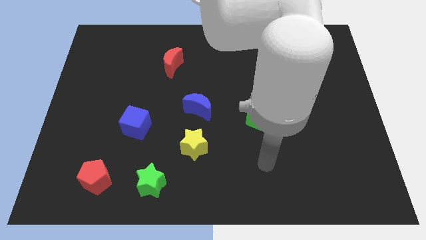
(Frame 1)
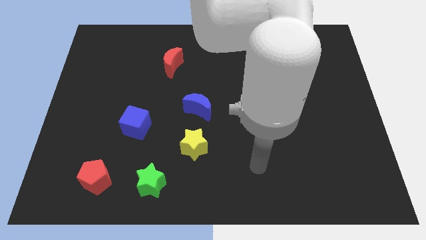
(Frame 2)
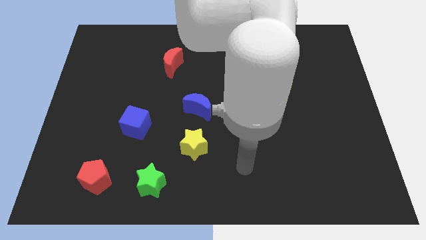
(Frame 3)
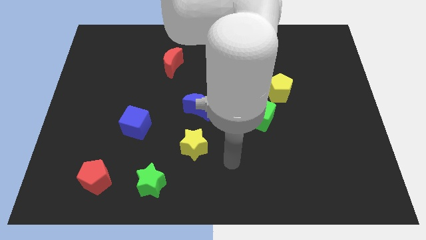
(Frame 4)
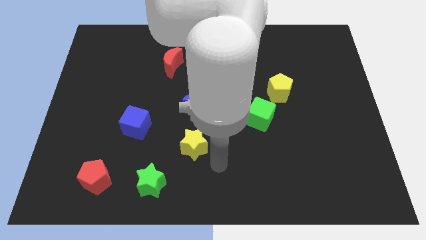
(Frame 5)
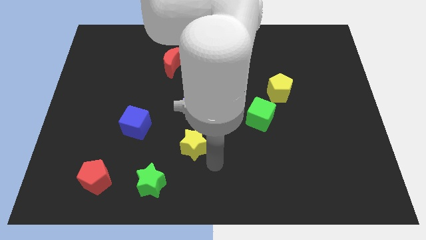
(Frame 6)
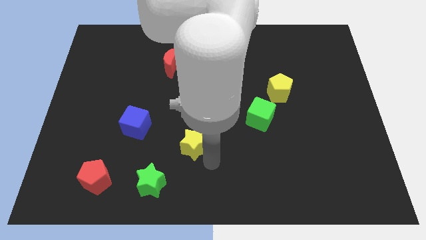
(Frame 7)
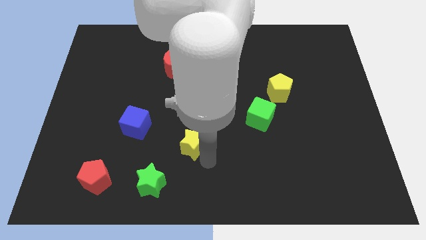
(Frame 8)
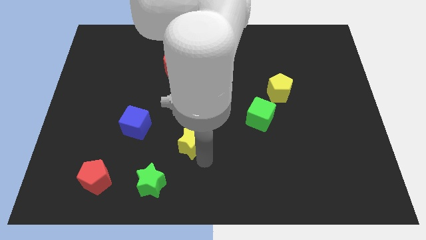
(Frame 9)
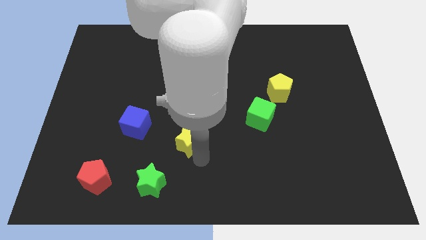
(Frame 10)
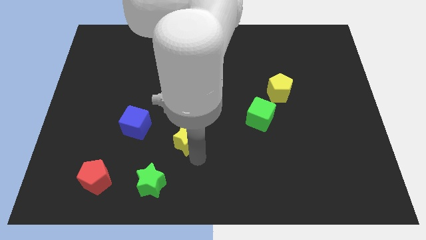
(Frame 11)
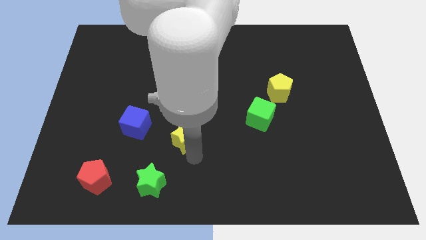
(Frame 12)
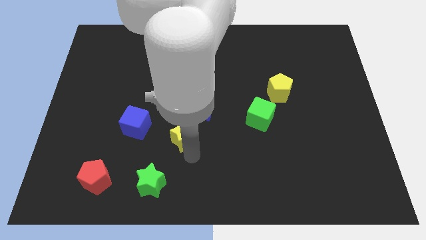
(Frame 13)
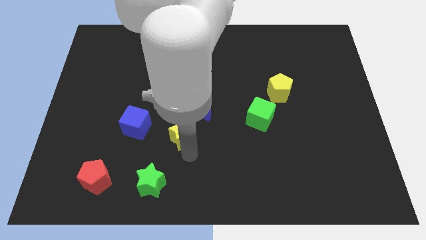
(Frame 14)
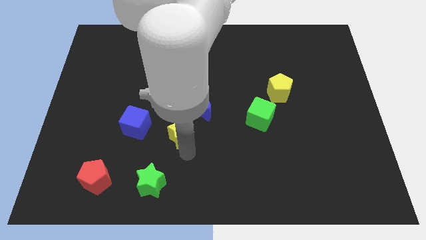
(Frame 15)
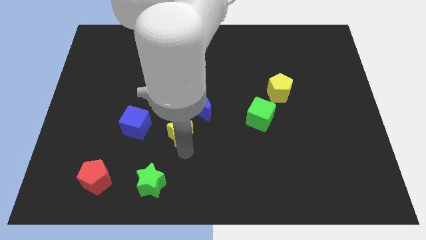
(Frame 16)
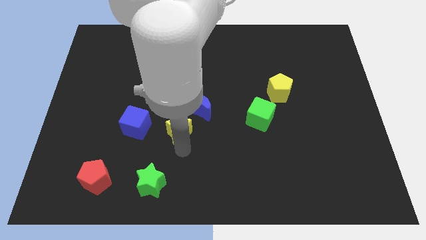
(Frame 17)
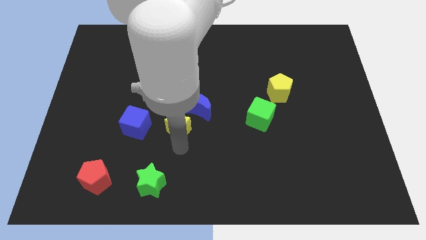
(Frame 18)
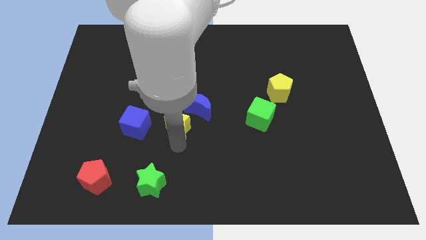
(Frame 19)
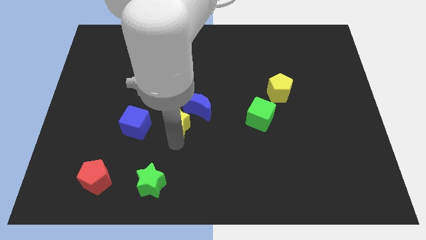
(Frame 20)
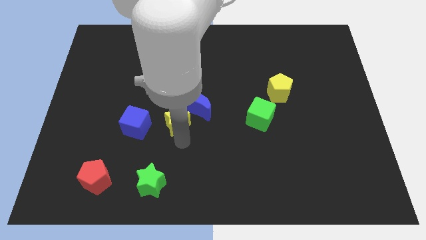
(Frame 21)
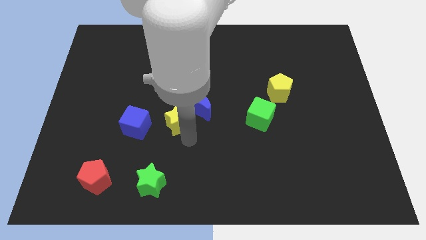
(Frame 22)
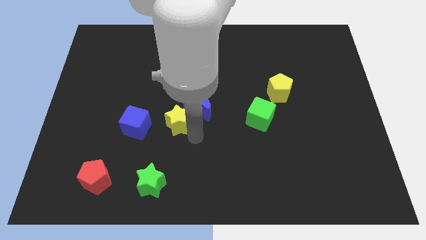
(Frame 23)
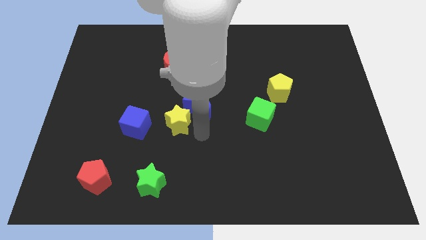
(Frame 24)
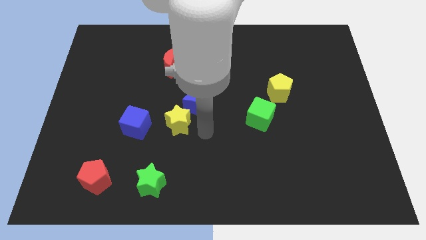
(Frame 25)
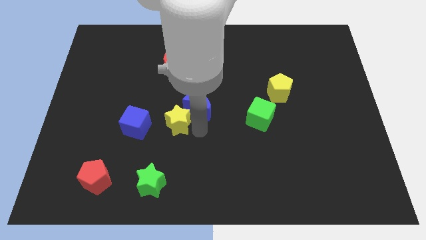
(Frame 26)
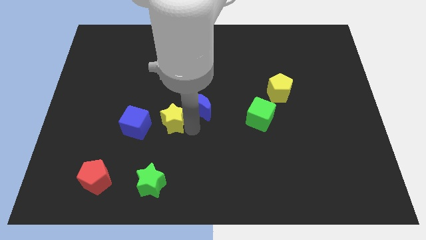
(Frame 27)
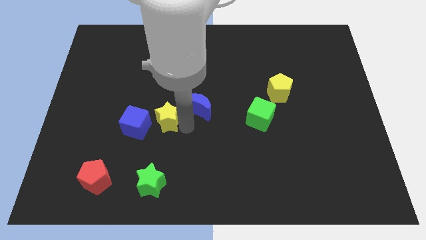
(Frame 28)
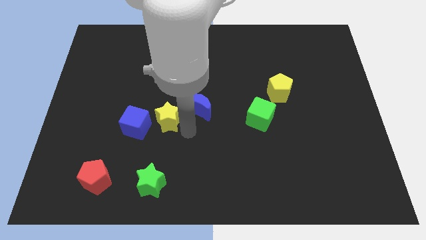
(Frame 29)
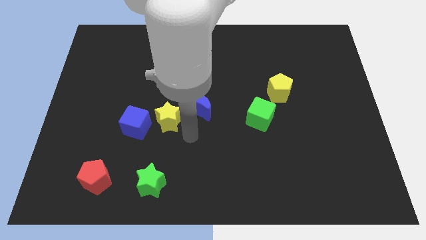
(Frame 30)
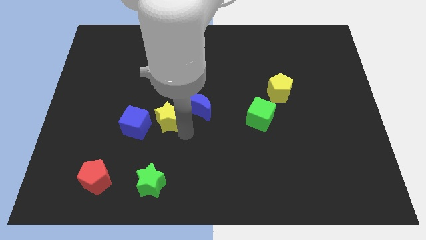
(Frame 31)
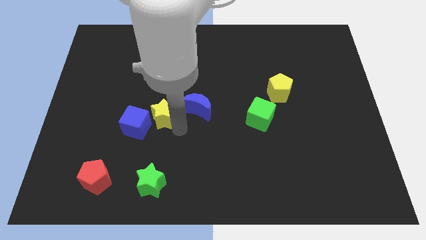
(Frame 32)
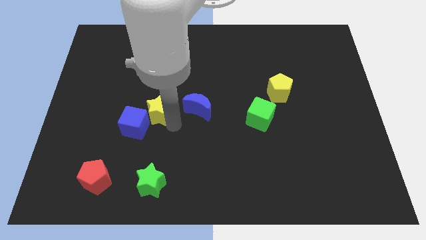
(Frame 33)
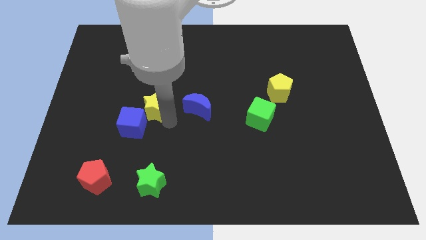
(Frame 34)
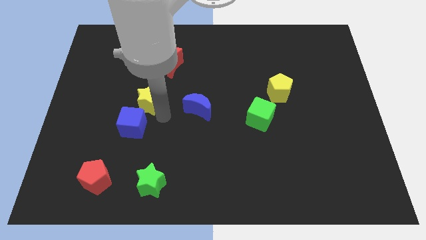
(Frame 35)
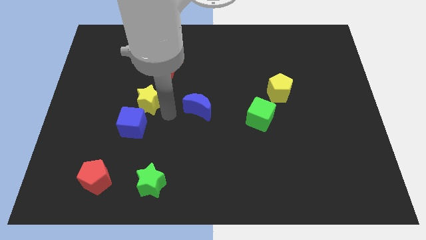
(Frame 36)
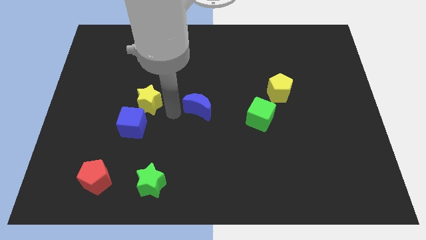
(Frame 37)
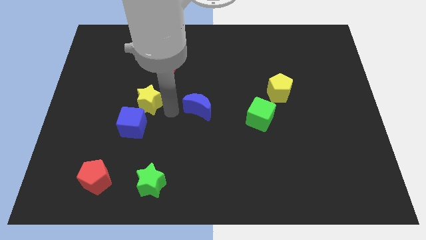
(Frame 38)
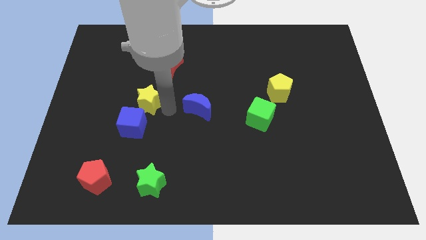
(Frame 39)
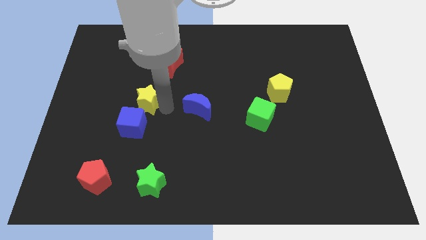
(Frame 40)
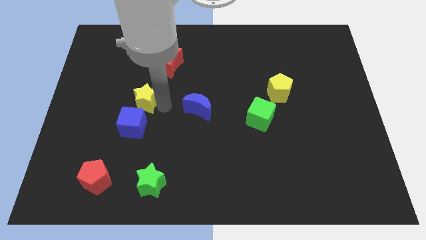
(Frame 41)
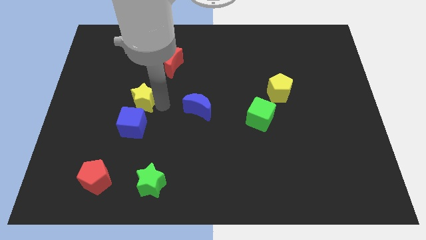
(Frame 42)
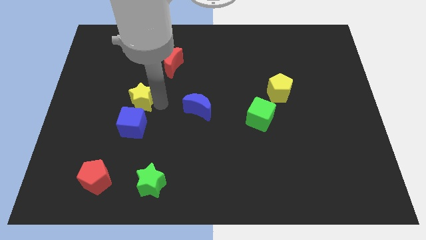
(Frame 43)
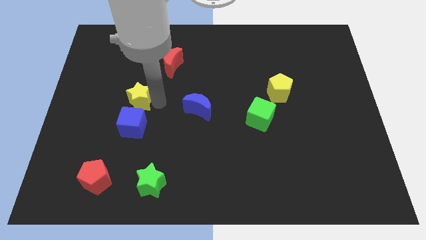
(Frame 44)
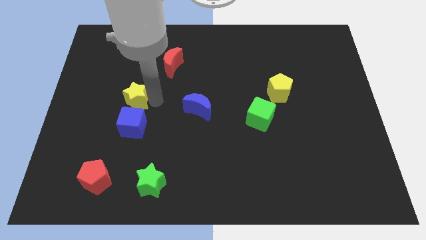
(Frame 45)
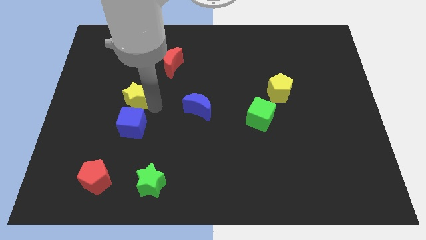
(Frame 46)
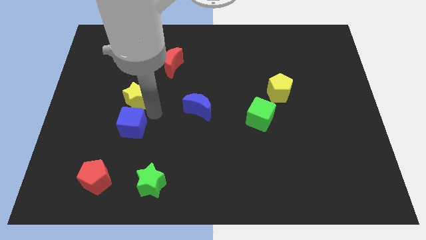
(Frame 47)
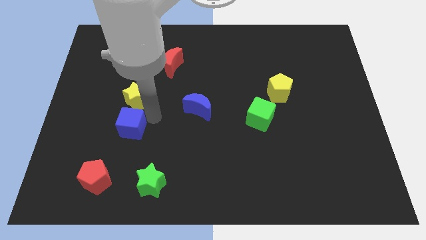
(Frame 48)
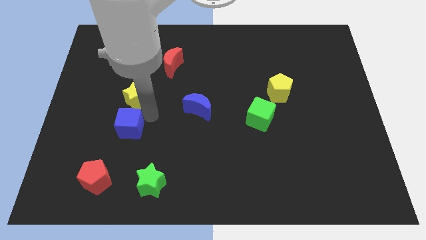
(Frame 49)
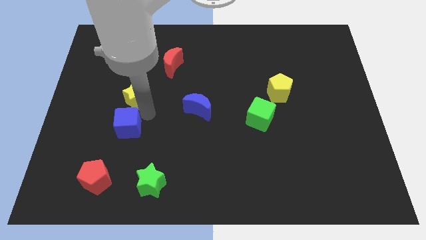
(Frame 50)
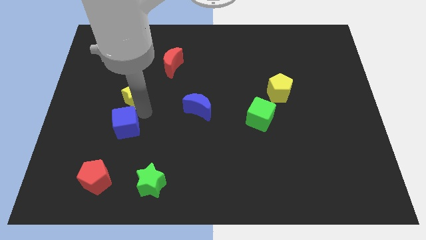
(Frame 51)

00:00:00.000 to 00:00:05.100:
push the yellow star up and then left

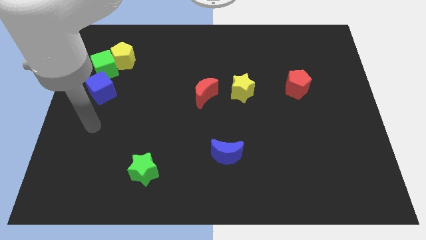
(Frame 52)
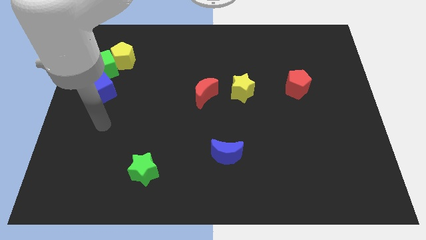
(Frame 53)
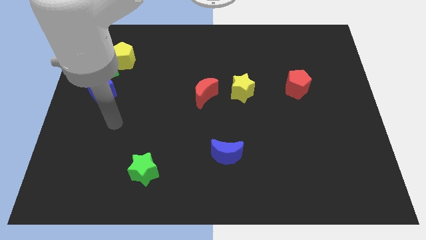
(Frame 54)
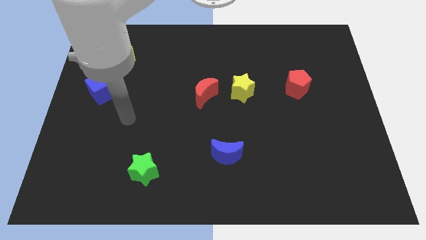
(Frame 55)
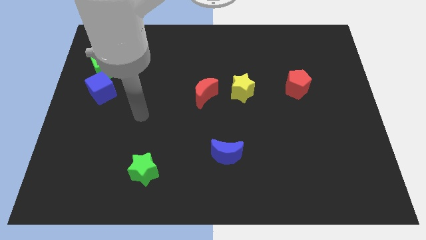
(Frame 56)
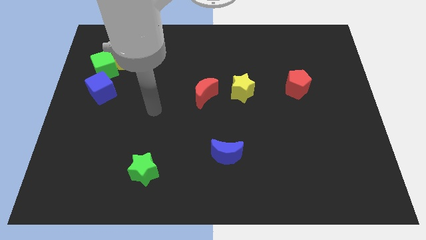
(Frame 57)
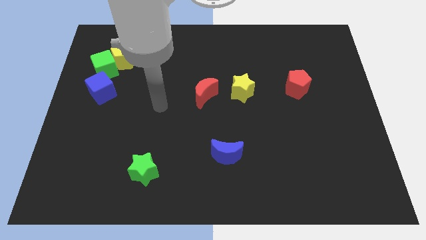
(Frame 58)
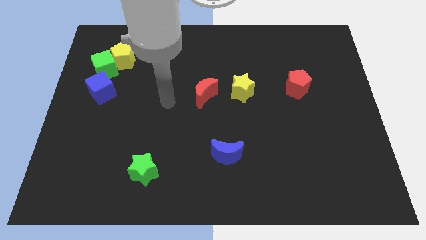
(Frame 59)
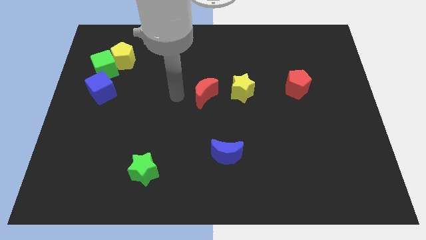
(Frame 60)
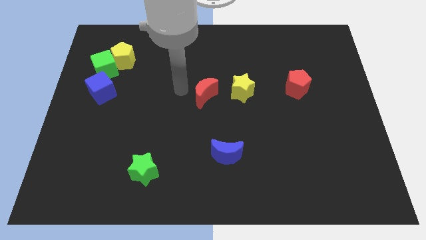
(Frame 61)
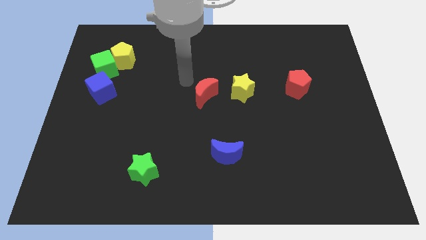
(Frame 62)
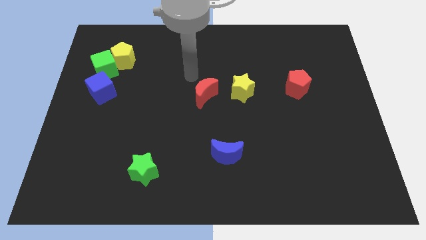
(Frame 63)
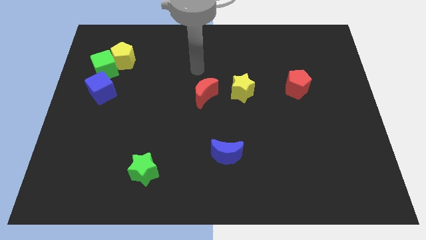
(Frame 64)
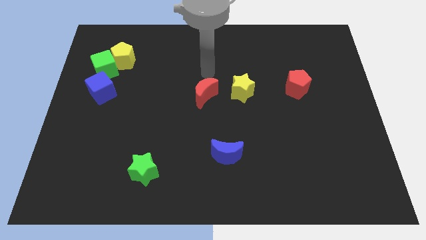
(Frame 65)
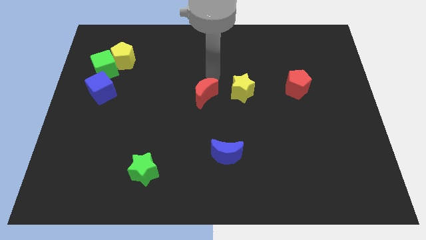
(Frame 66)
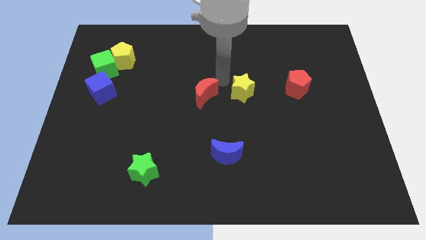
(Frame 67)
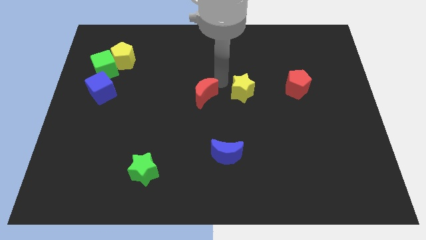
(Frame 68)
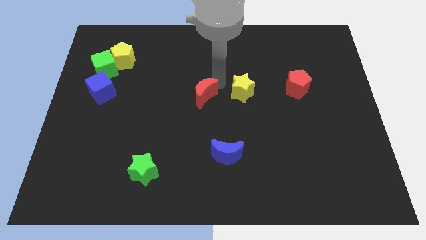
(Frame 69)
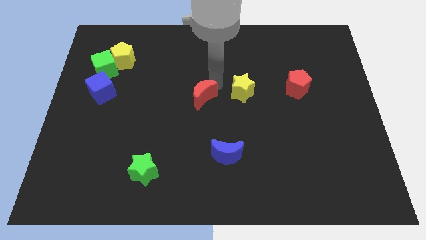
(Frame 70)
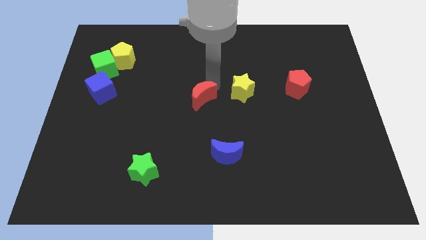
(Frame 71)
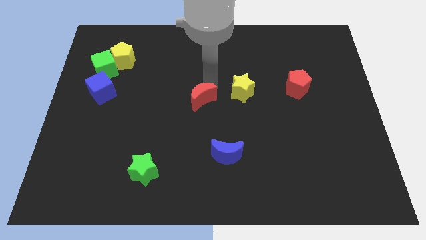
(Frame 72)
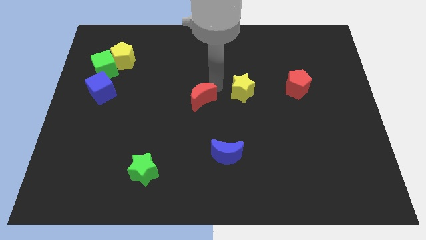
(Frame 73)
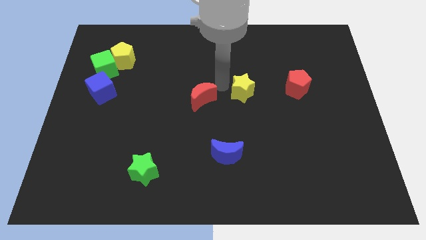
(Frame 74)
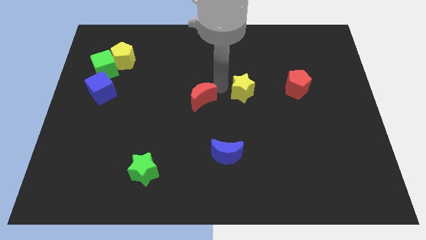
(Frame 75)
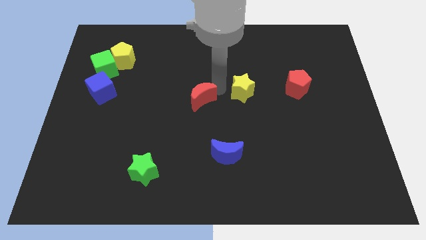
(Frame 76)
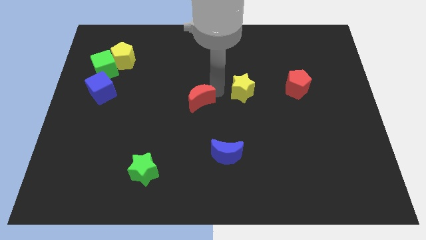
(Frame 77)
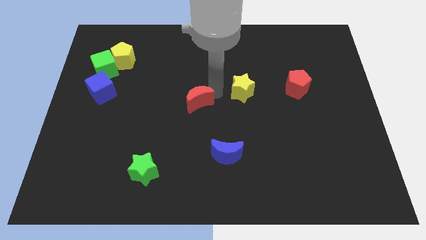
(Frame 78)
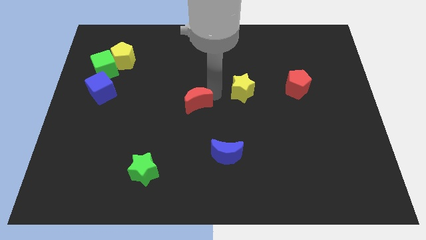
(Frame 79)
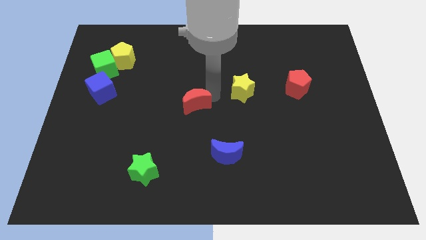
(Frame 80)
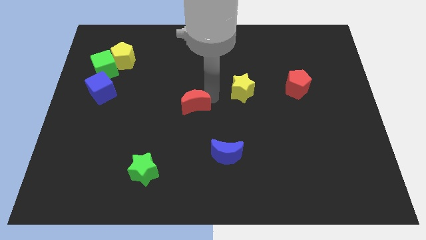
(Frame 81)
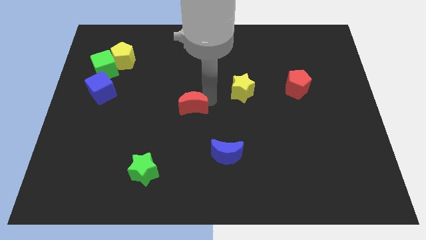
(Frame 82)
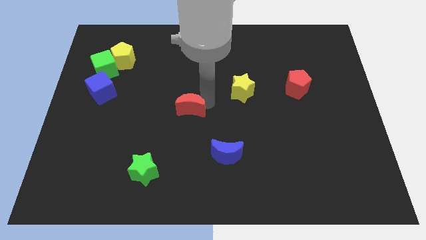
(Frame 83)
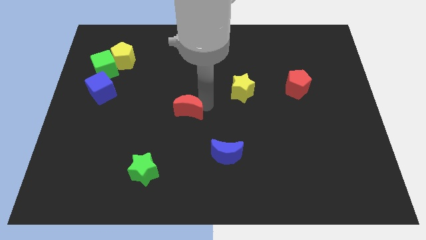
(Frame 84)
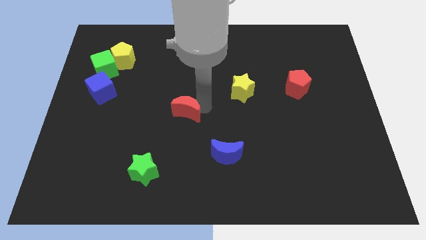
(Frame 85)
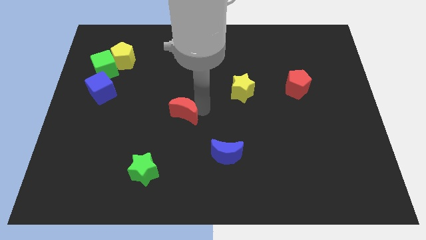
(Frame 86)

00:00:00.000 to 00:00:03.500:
slide the red moon a little bit diagonally downwards and left
